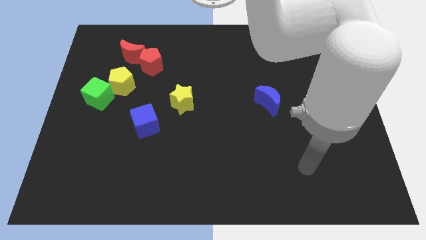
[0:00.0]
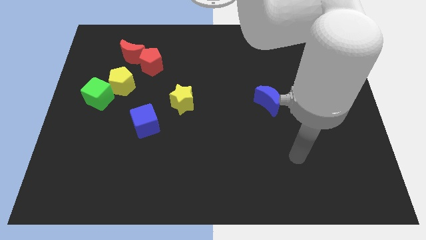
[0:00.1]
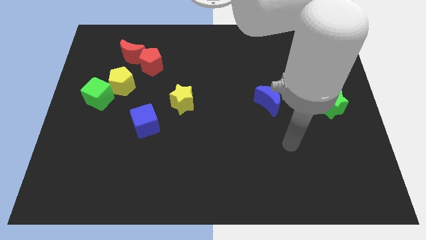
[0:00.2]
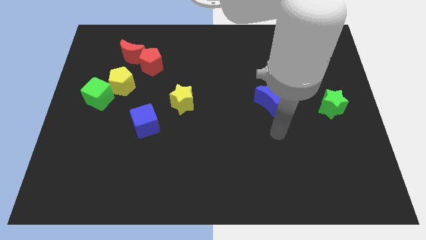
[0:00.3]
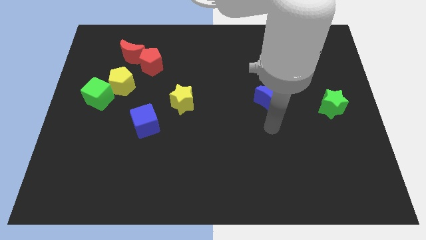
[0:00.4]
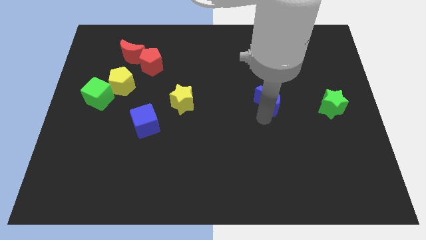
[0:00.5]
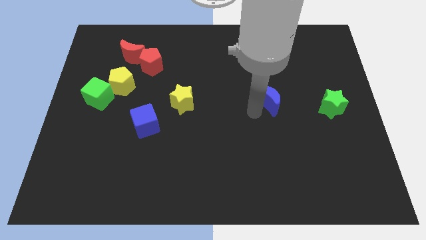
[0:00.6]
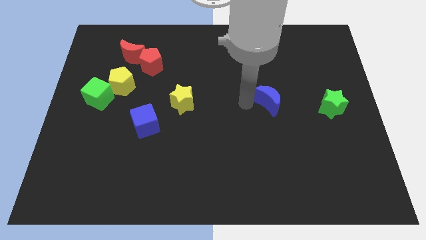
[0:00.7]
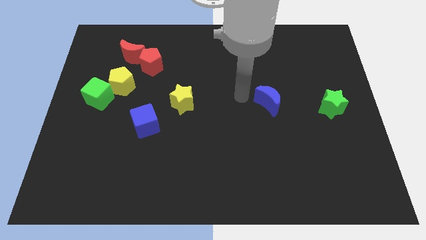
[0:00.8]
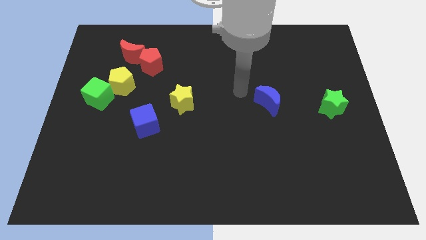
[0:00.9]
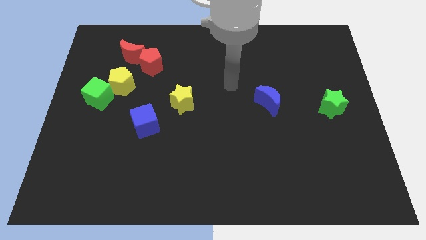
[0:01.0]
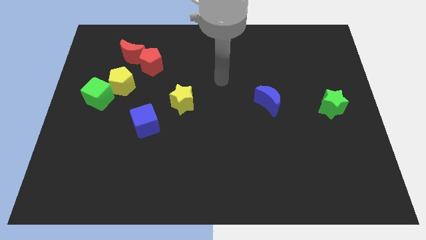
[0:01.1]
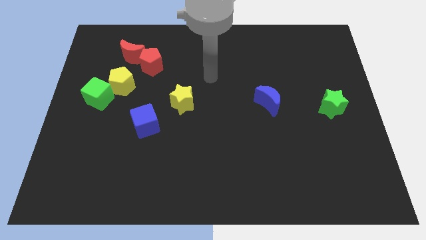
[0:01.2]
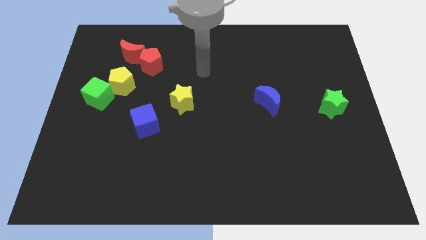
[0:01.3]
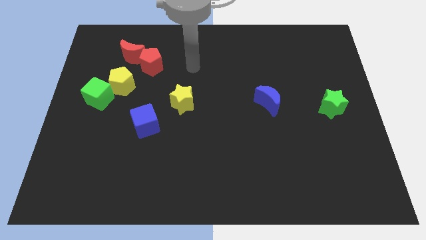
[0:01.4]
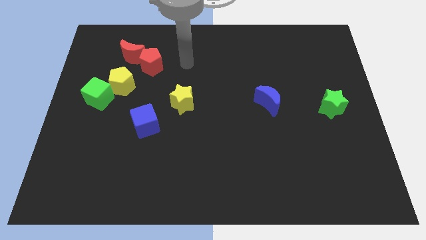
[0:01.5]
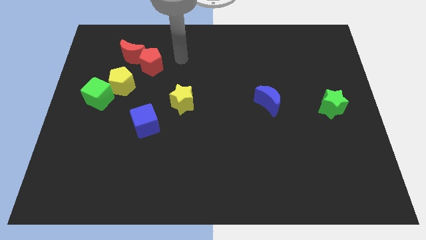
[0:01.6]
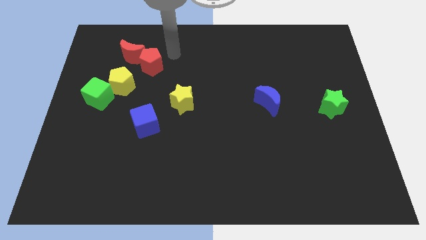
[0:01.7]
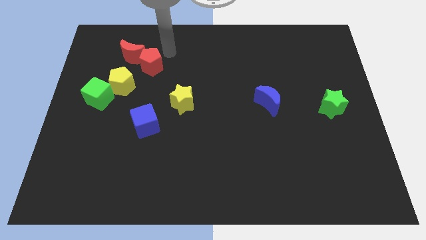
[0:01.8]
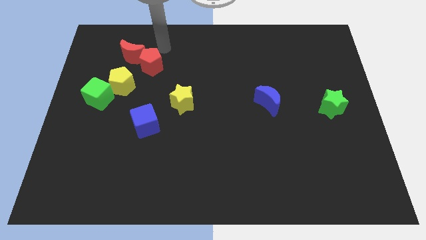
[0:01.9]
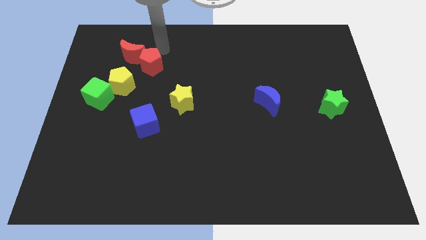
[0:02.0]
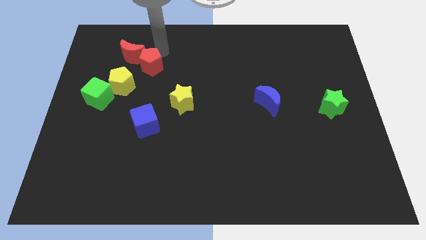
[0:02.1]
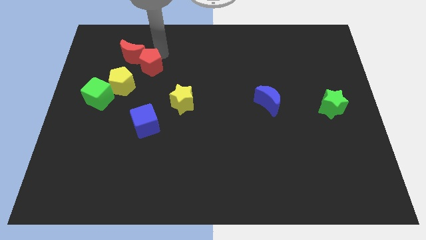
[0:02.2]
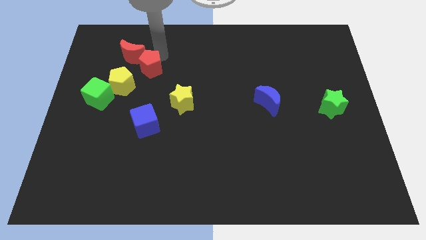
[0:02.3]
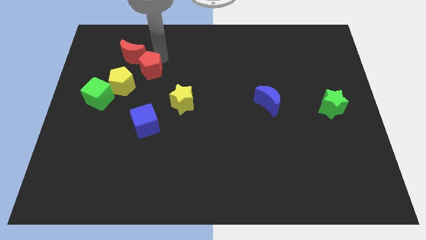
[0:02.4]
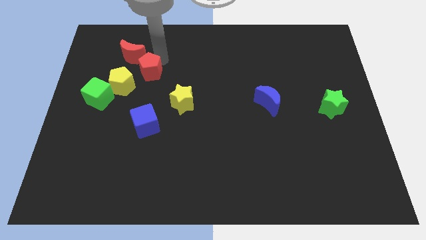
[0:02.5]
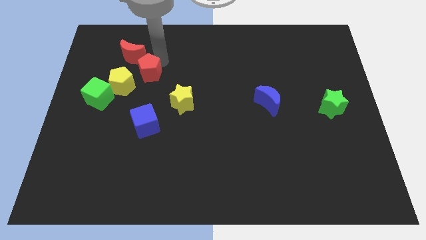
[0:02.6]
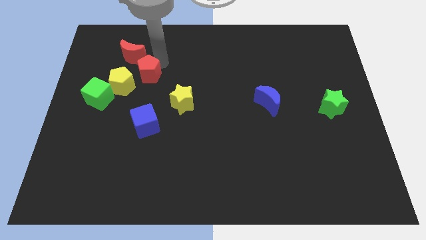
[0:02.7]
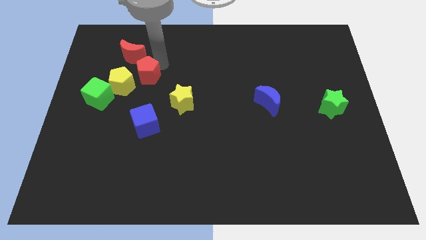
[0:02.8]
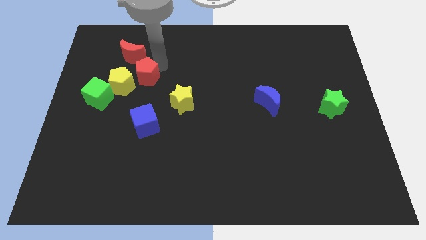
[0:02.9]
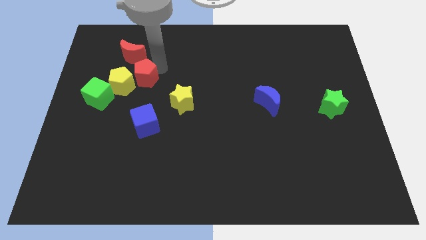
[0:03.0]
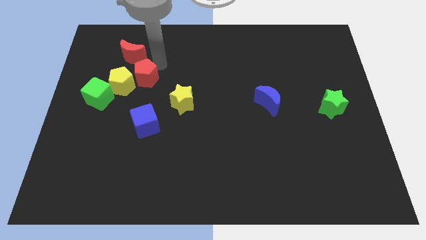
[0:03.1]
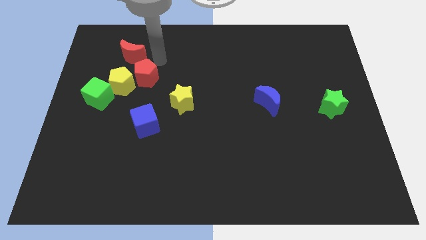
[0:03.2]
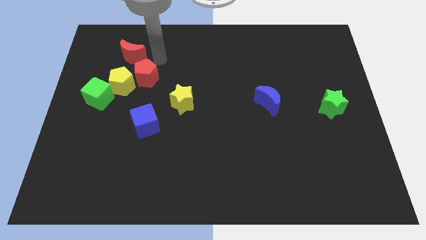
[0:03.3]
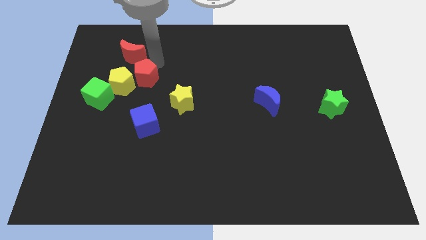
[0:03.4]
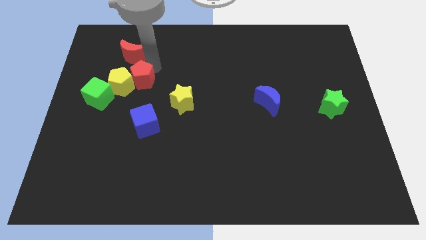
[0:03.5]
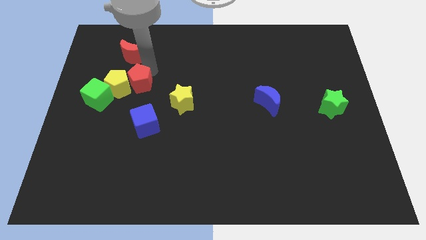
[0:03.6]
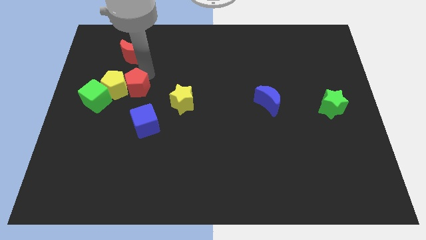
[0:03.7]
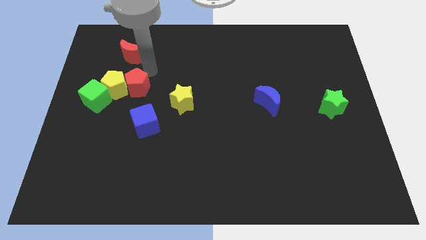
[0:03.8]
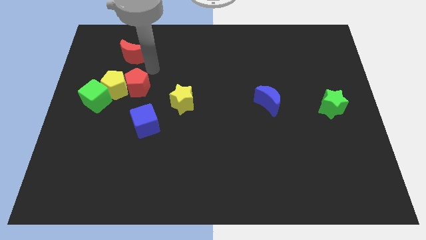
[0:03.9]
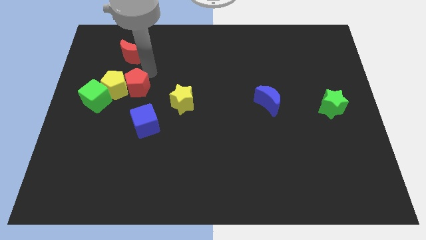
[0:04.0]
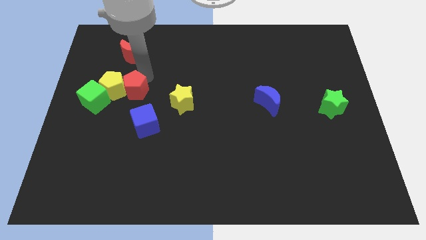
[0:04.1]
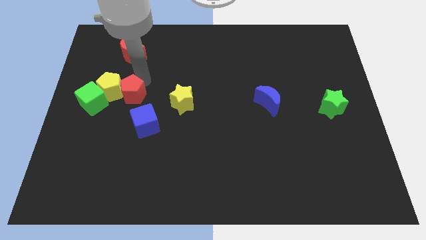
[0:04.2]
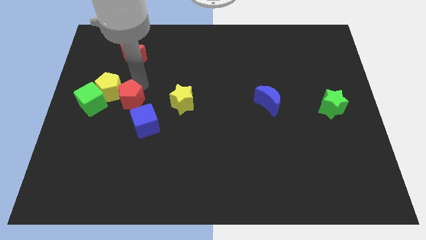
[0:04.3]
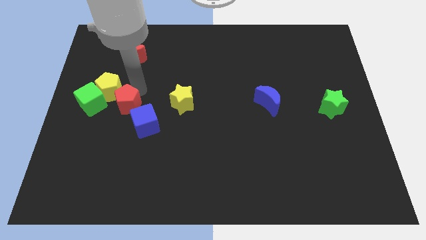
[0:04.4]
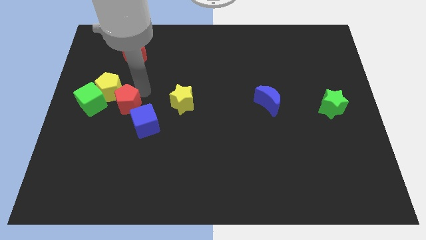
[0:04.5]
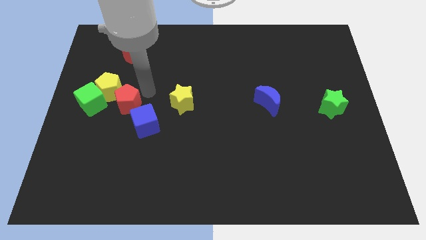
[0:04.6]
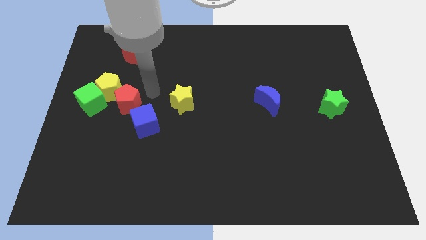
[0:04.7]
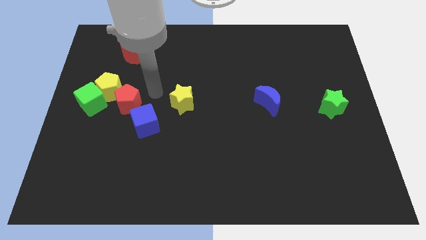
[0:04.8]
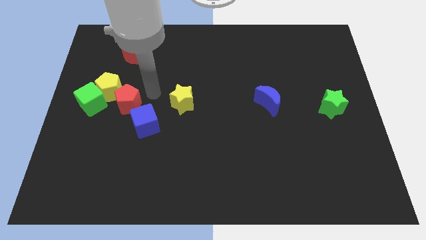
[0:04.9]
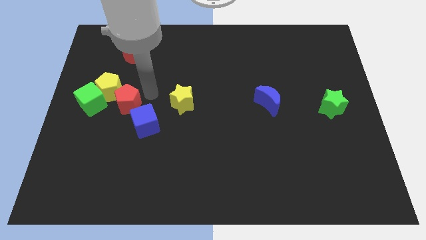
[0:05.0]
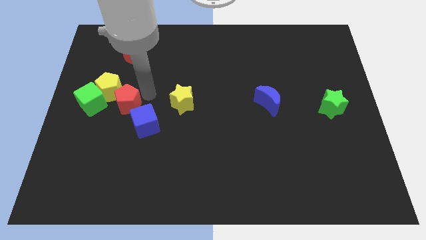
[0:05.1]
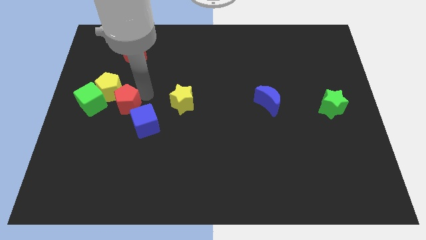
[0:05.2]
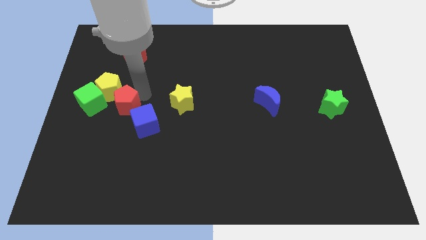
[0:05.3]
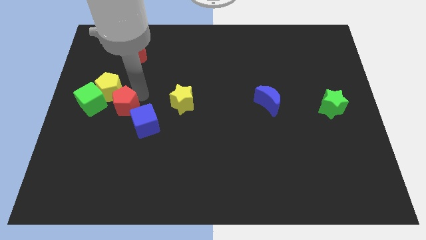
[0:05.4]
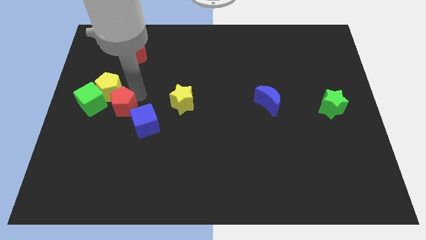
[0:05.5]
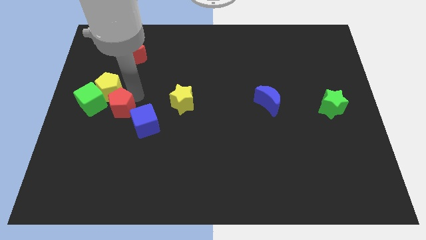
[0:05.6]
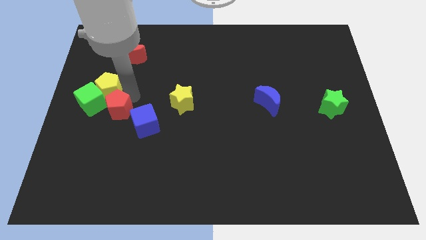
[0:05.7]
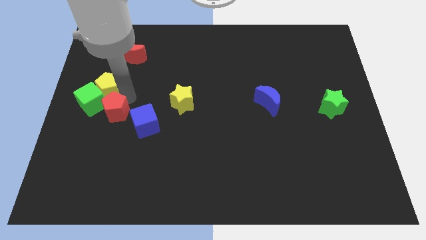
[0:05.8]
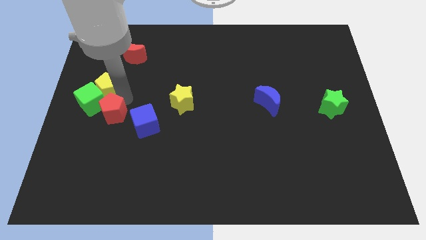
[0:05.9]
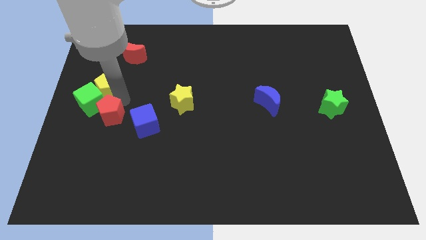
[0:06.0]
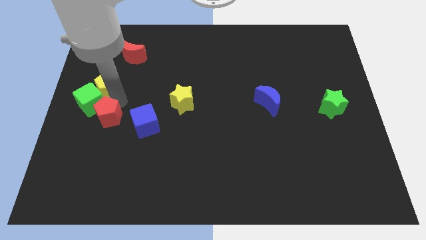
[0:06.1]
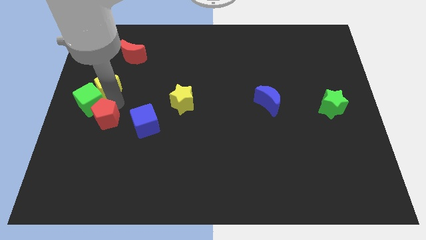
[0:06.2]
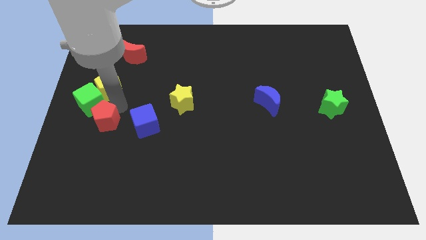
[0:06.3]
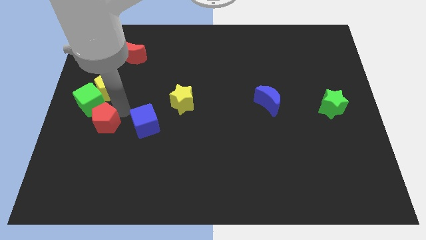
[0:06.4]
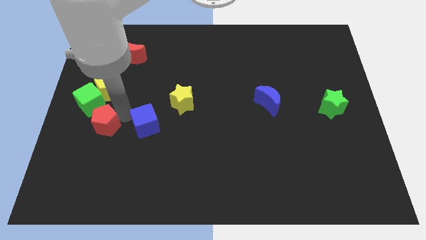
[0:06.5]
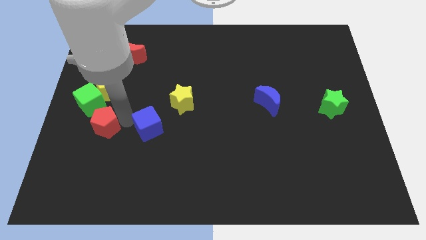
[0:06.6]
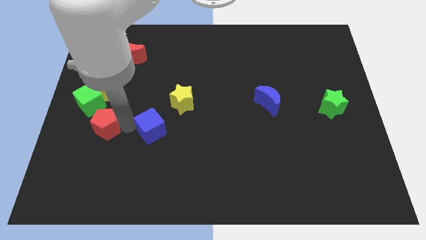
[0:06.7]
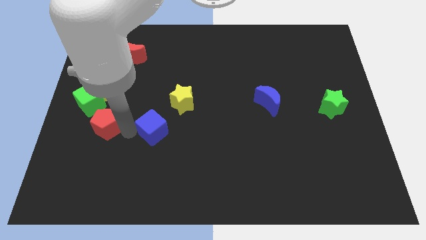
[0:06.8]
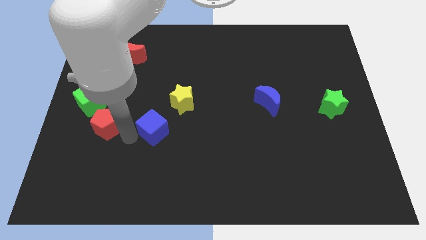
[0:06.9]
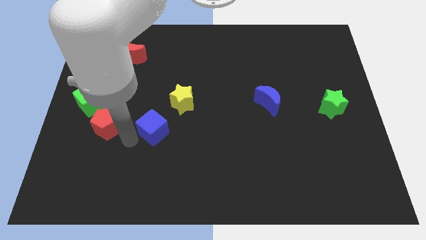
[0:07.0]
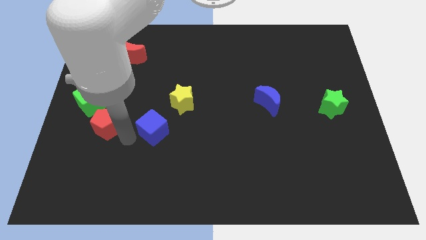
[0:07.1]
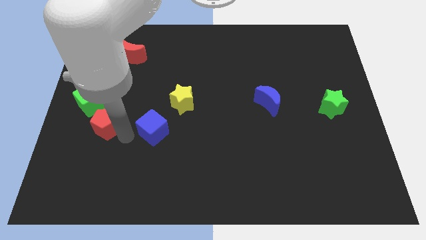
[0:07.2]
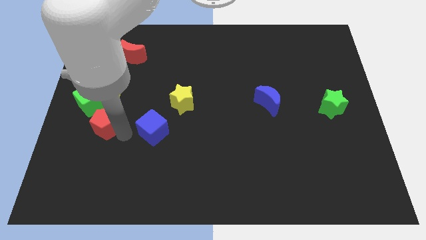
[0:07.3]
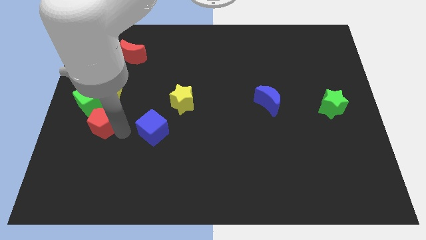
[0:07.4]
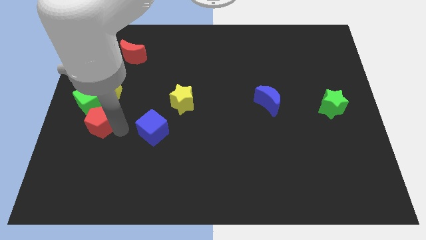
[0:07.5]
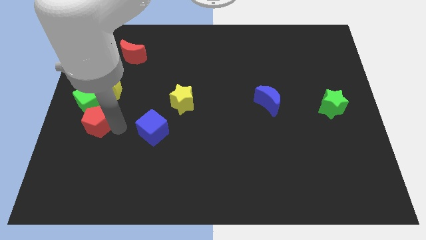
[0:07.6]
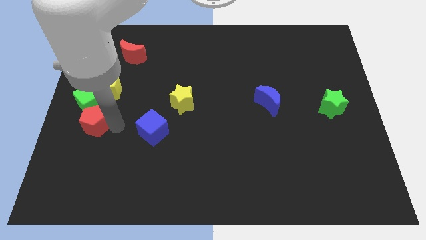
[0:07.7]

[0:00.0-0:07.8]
put the red pentagon to the center left
